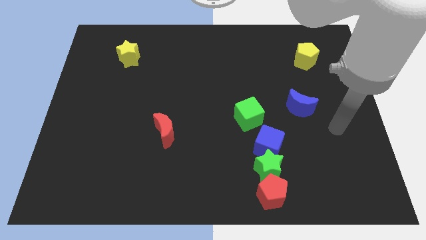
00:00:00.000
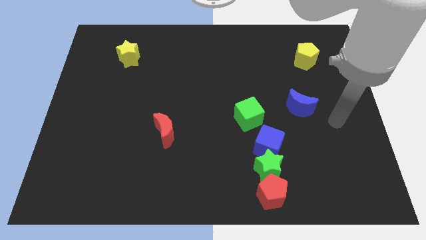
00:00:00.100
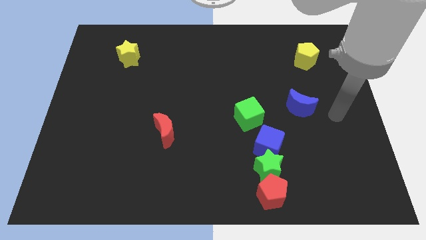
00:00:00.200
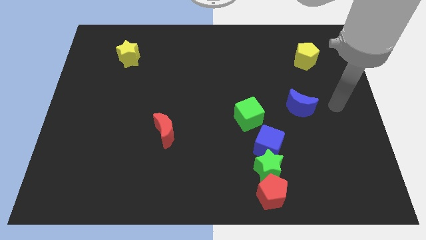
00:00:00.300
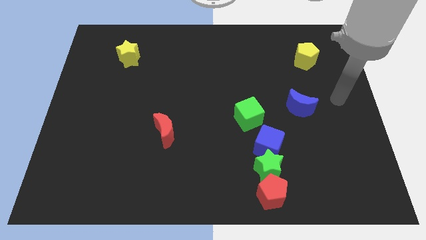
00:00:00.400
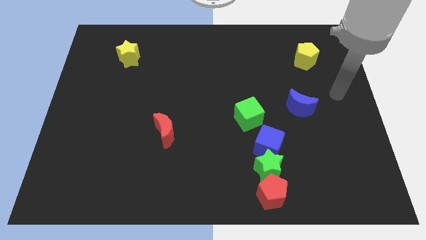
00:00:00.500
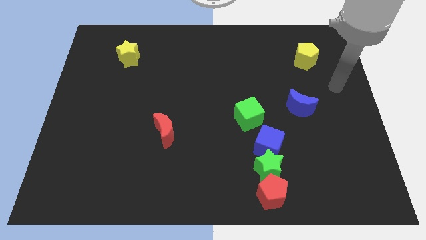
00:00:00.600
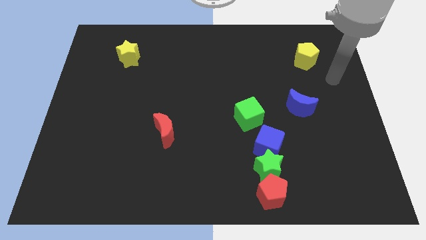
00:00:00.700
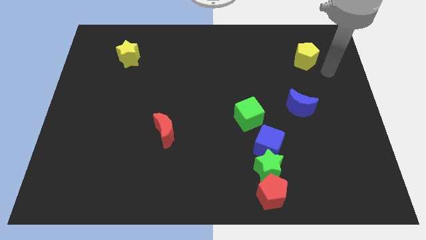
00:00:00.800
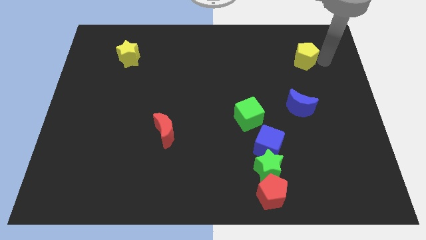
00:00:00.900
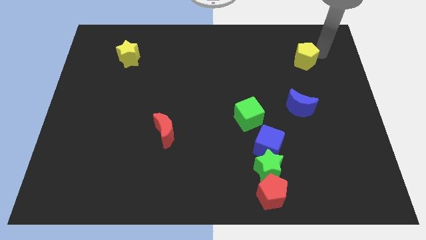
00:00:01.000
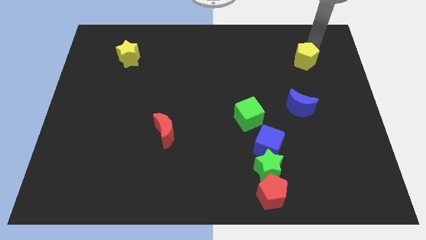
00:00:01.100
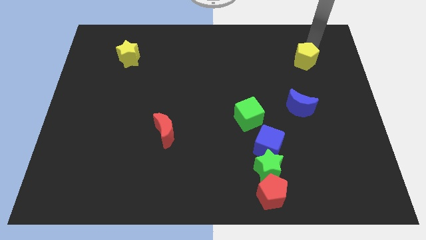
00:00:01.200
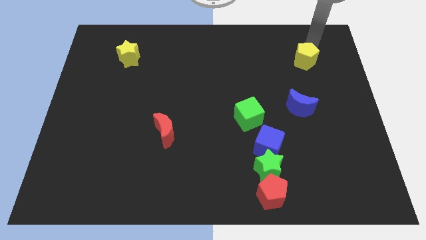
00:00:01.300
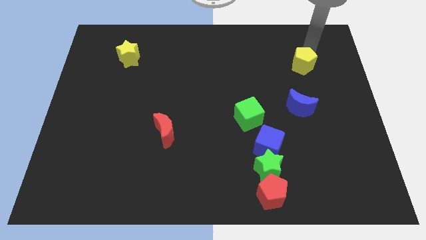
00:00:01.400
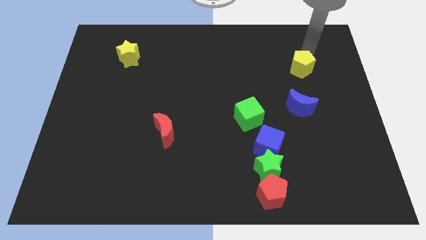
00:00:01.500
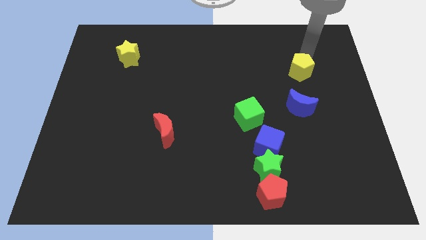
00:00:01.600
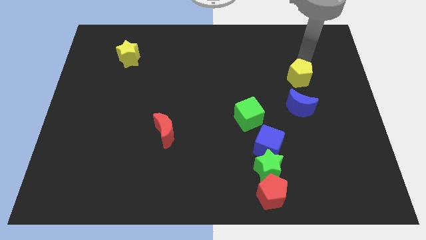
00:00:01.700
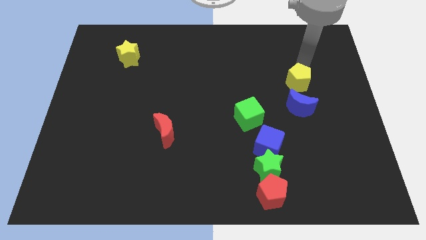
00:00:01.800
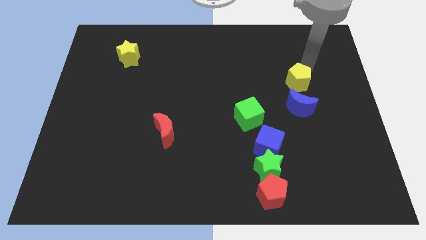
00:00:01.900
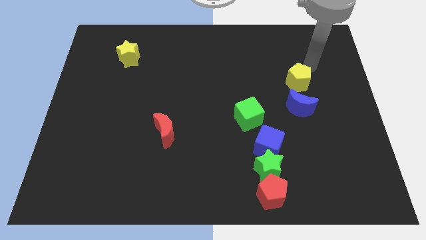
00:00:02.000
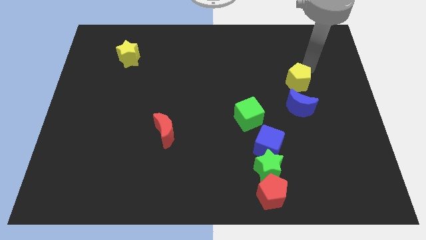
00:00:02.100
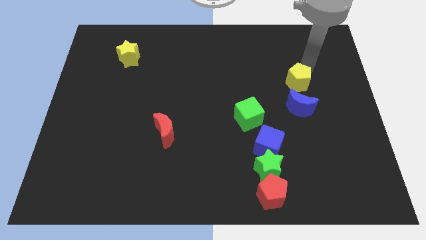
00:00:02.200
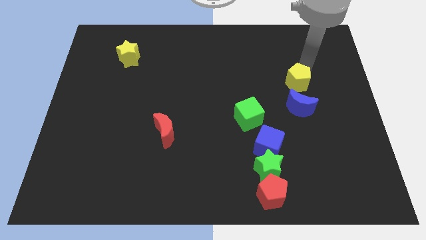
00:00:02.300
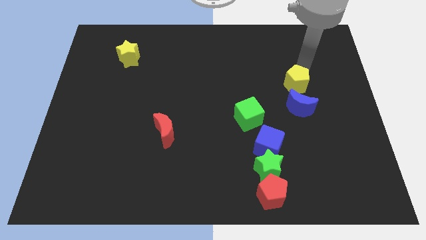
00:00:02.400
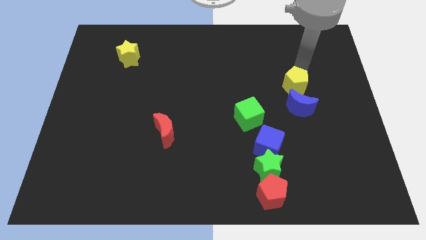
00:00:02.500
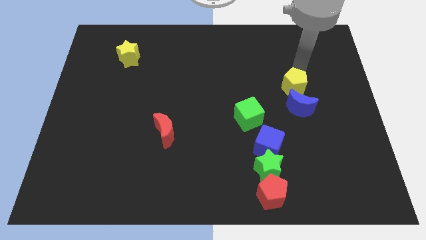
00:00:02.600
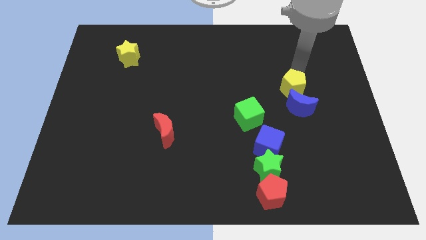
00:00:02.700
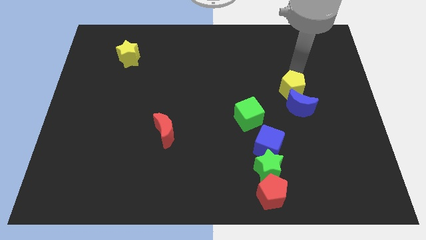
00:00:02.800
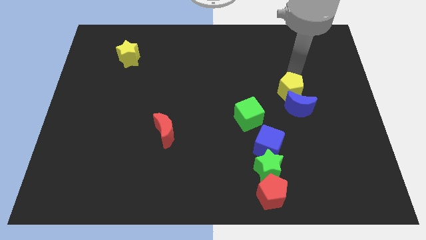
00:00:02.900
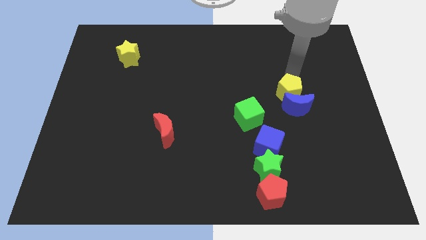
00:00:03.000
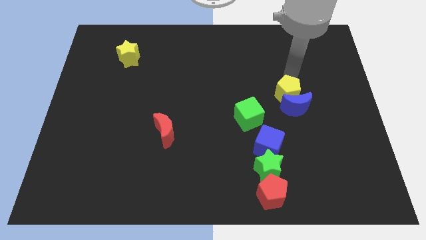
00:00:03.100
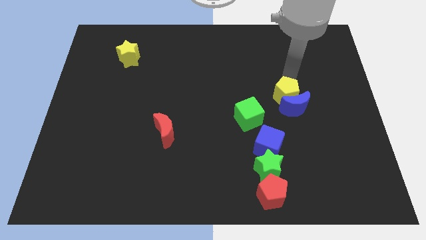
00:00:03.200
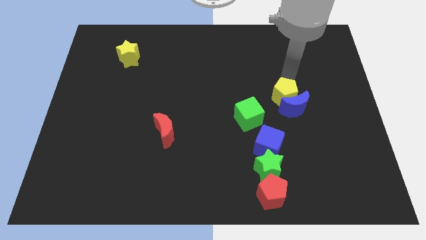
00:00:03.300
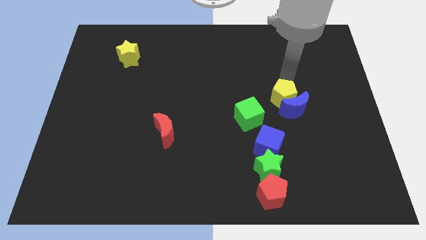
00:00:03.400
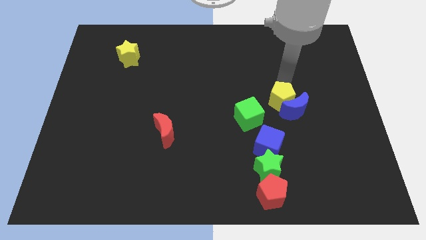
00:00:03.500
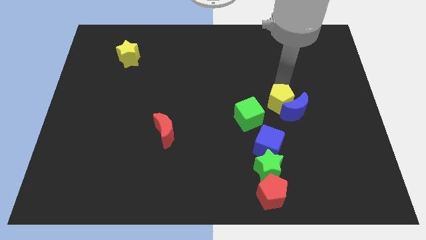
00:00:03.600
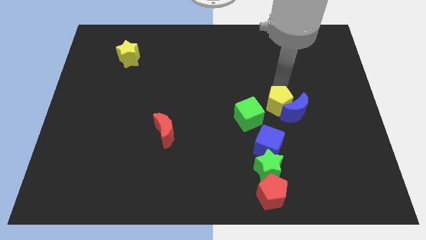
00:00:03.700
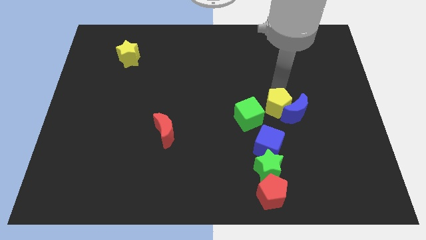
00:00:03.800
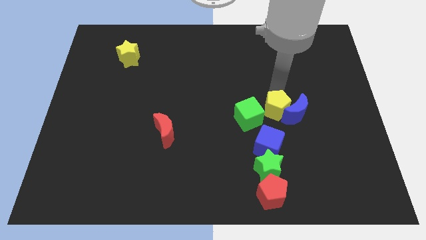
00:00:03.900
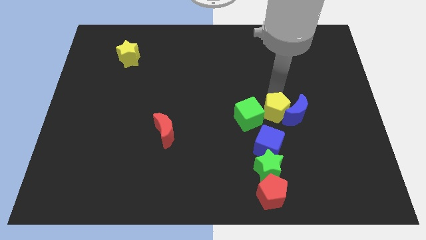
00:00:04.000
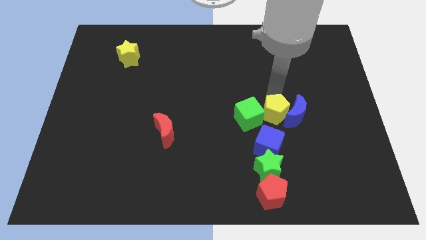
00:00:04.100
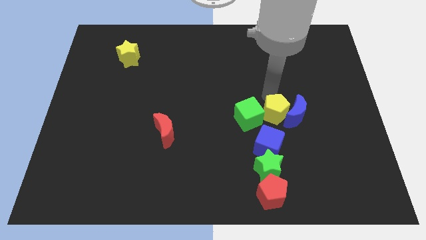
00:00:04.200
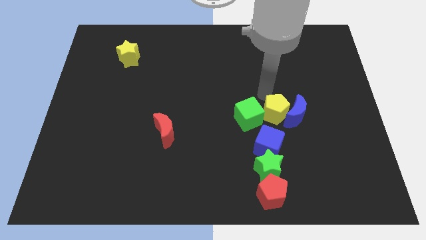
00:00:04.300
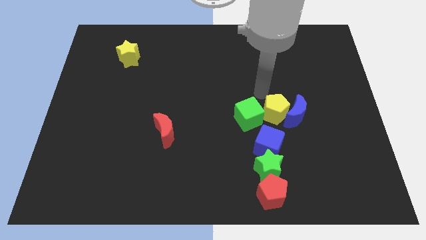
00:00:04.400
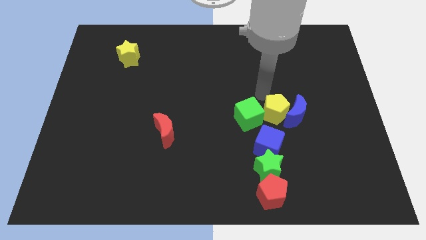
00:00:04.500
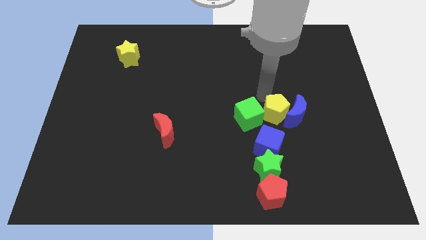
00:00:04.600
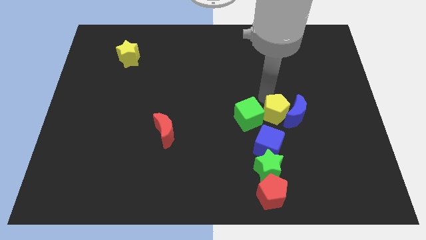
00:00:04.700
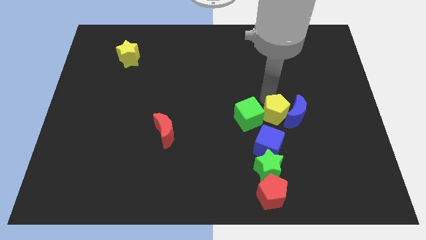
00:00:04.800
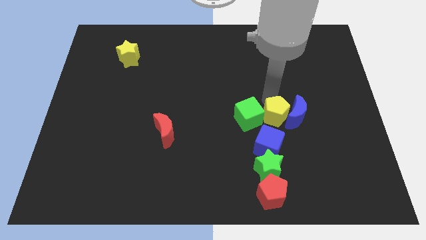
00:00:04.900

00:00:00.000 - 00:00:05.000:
put the yellow pentagon to the bottom right of the green cube

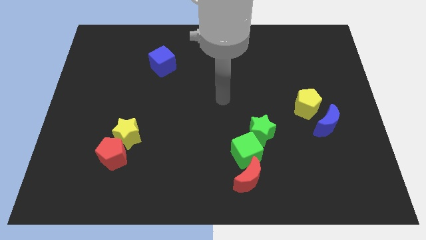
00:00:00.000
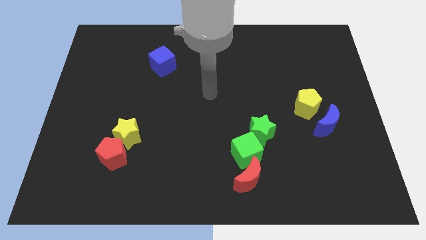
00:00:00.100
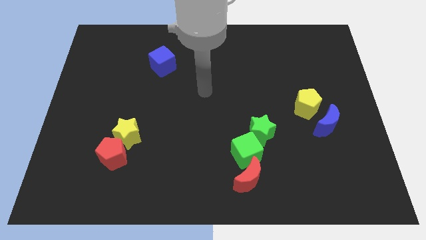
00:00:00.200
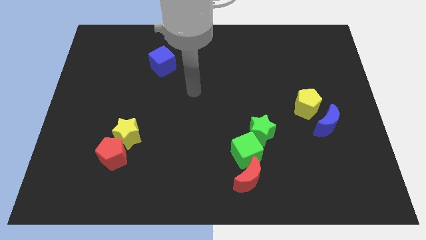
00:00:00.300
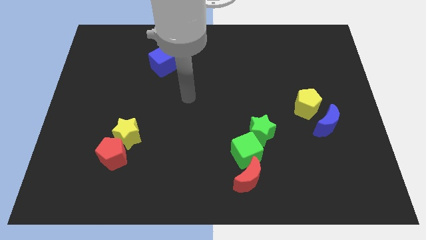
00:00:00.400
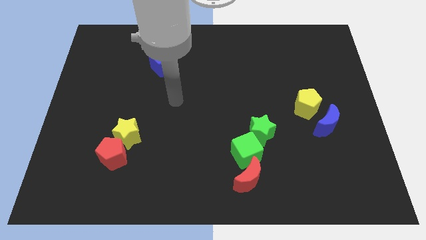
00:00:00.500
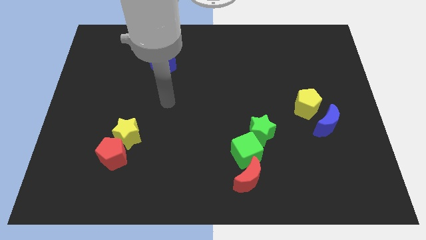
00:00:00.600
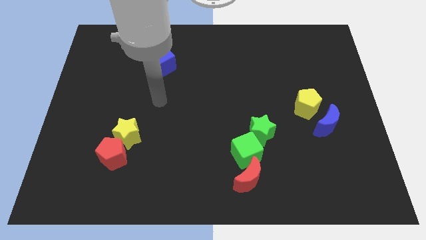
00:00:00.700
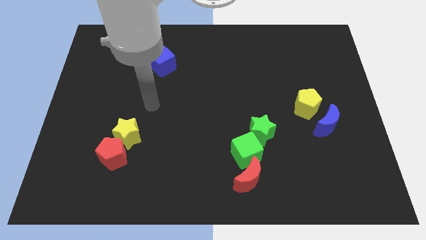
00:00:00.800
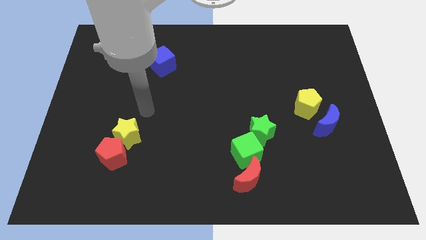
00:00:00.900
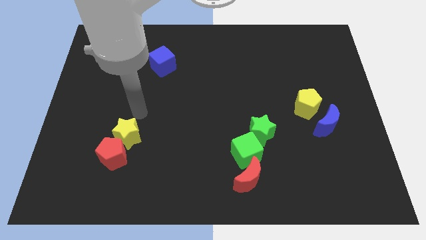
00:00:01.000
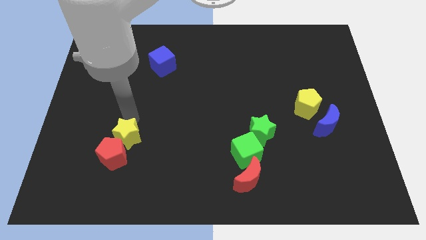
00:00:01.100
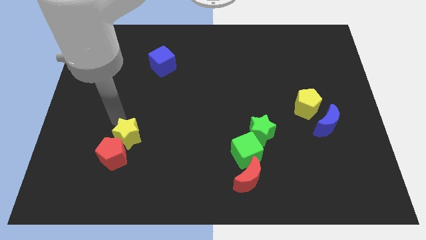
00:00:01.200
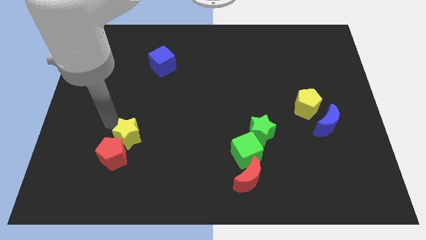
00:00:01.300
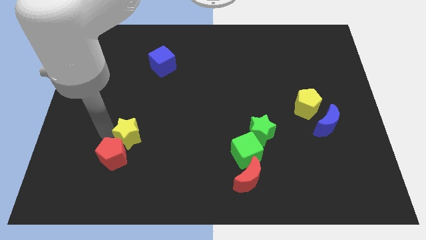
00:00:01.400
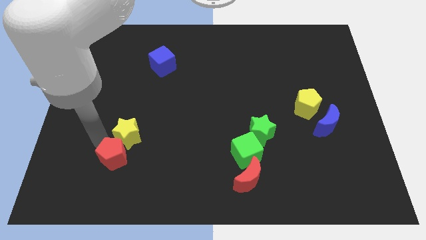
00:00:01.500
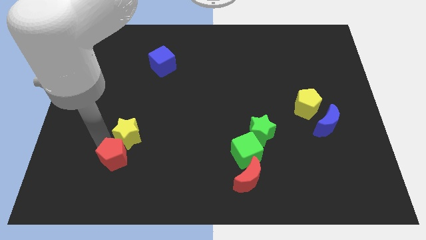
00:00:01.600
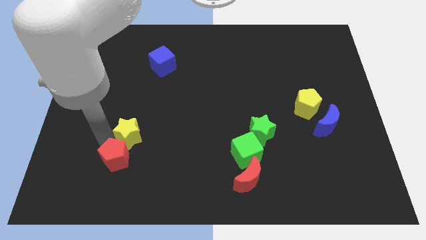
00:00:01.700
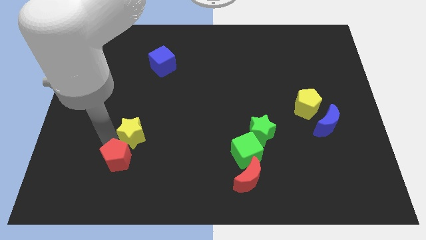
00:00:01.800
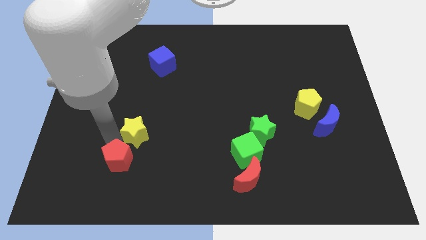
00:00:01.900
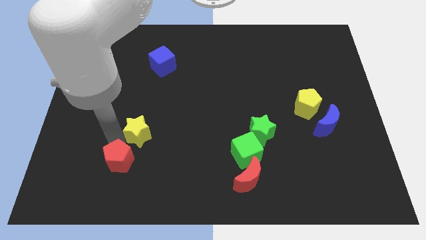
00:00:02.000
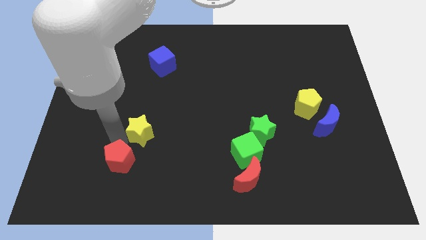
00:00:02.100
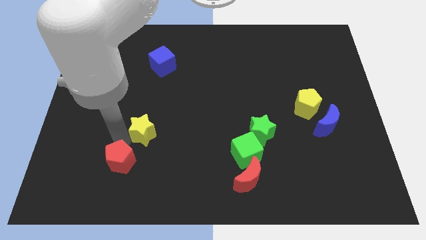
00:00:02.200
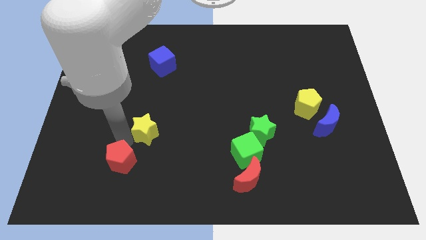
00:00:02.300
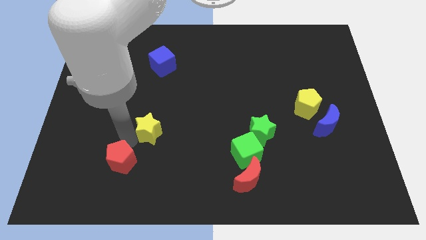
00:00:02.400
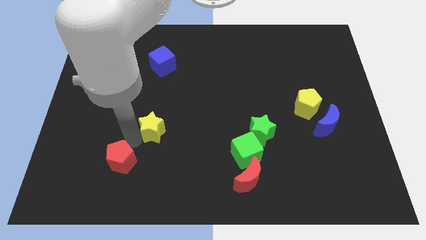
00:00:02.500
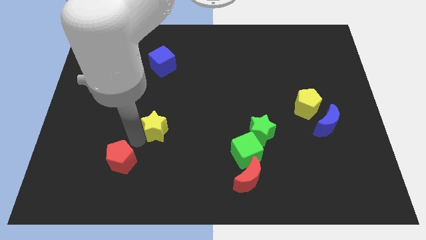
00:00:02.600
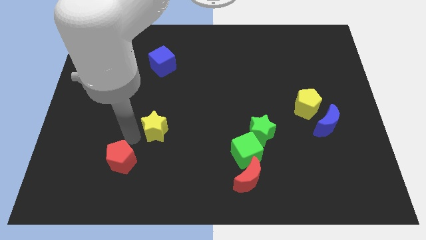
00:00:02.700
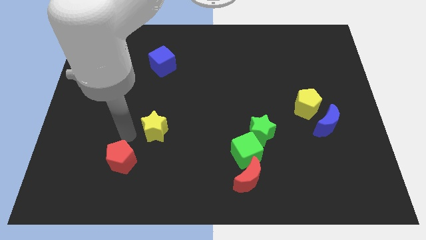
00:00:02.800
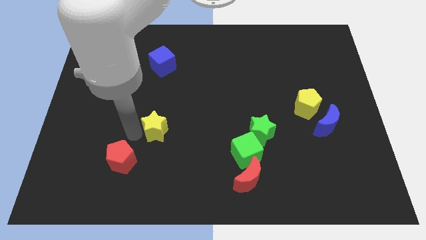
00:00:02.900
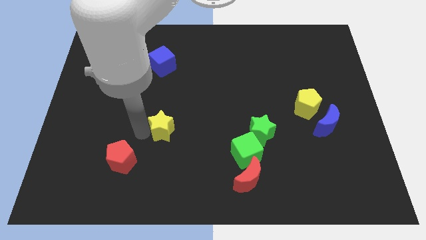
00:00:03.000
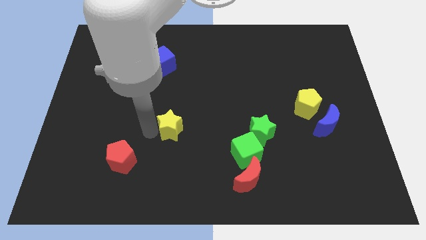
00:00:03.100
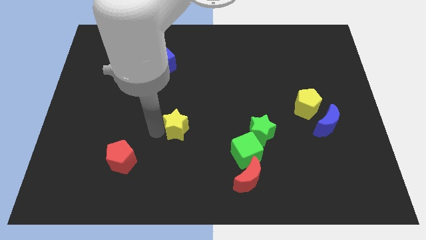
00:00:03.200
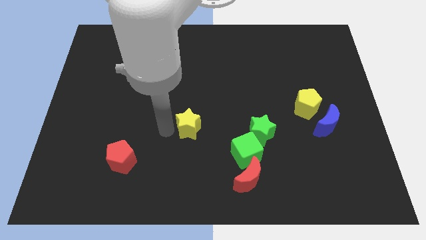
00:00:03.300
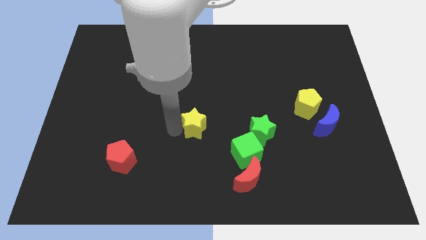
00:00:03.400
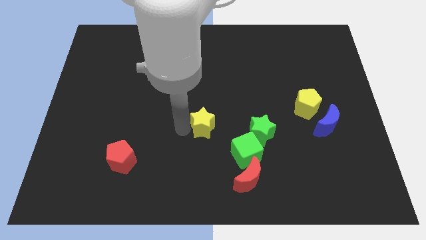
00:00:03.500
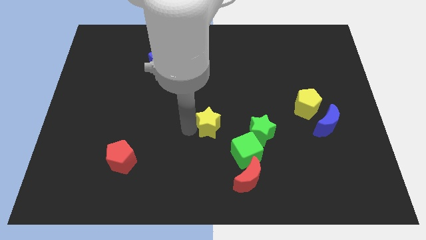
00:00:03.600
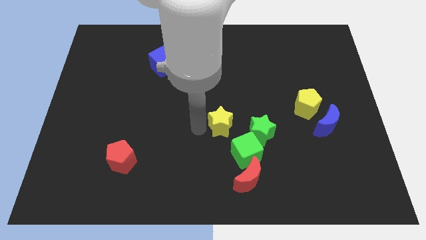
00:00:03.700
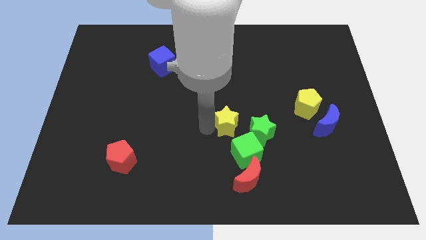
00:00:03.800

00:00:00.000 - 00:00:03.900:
slide the yellow star above the green cube
